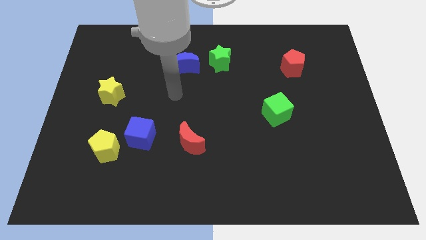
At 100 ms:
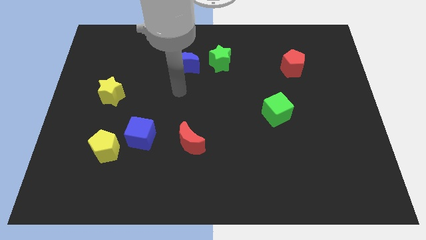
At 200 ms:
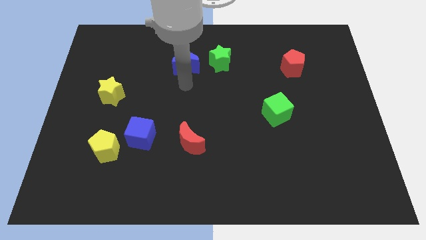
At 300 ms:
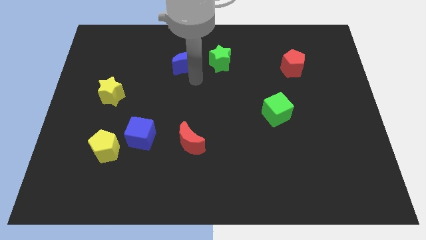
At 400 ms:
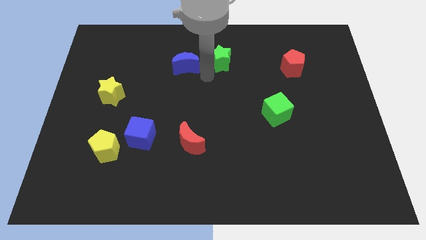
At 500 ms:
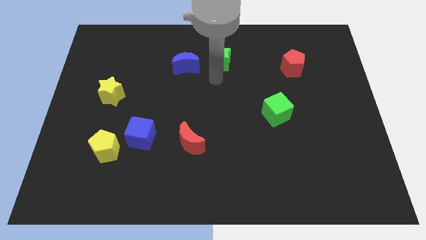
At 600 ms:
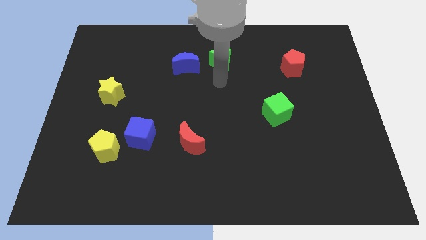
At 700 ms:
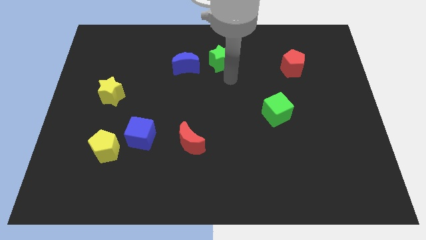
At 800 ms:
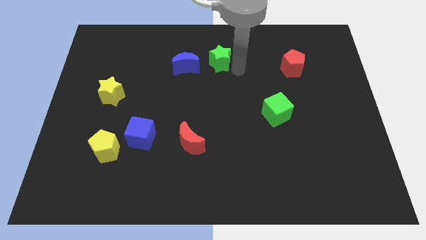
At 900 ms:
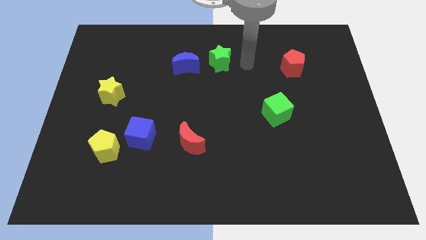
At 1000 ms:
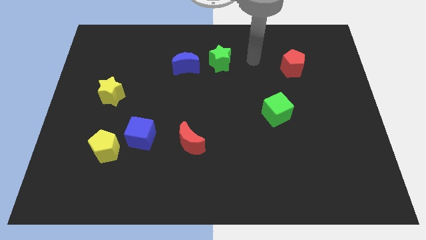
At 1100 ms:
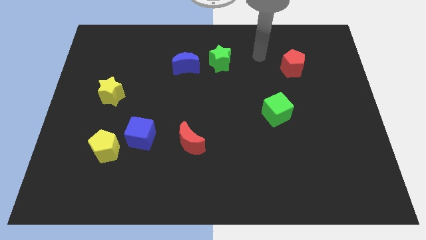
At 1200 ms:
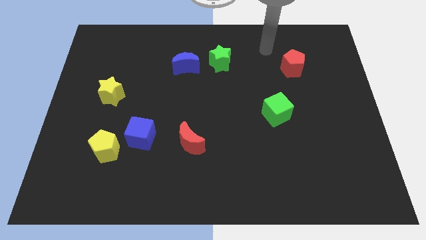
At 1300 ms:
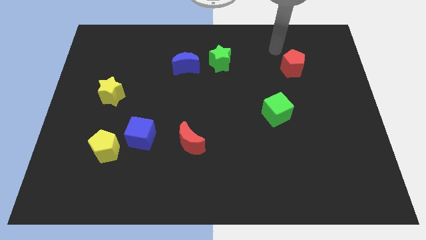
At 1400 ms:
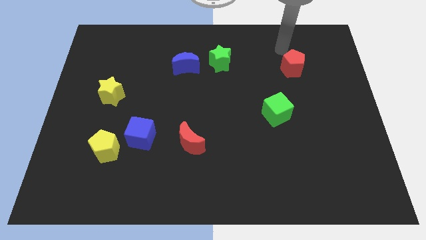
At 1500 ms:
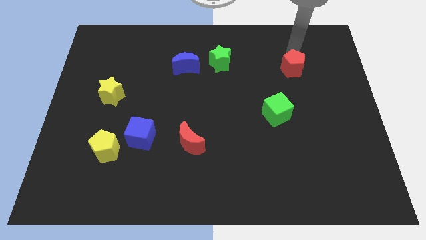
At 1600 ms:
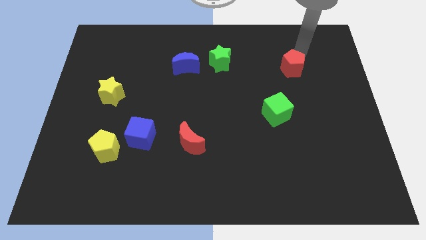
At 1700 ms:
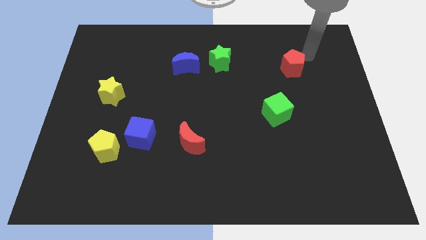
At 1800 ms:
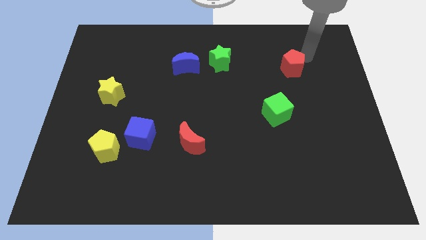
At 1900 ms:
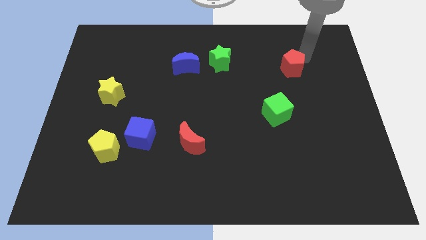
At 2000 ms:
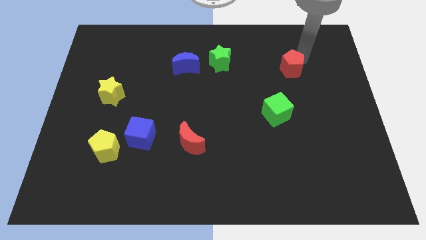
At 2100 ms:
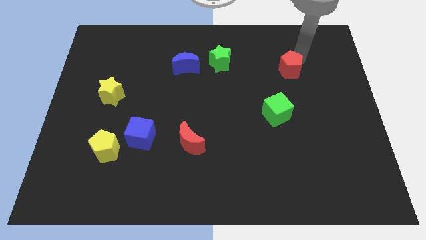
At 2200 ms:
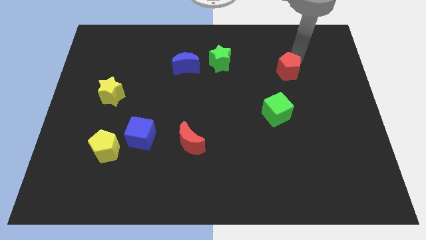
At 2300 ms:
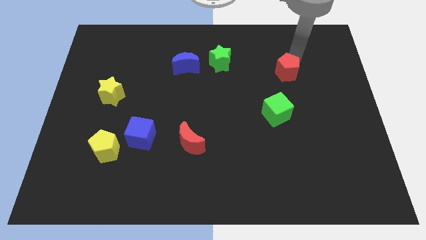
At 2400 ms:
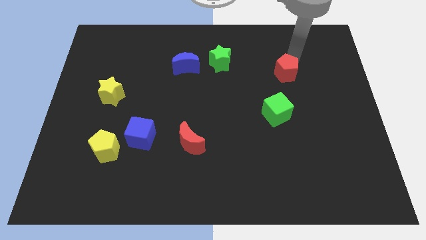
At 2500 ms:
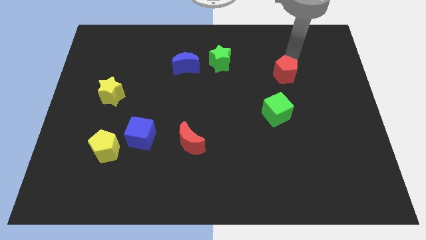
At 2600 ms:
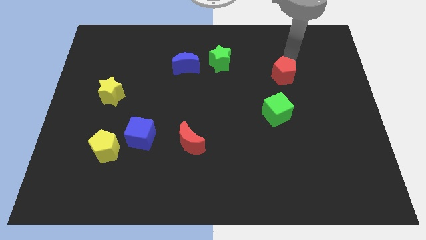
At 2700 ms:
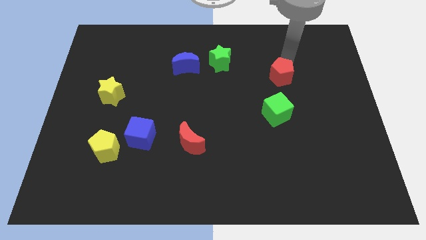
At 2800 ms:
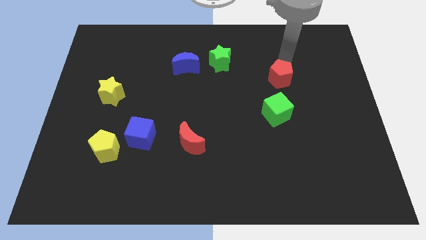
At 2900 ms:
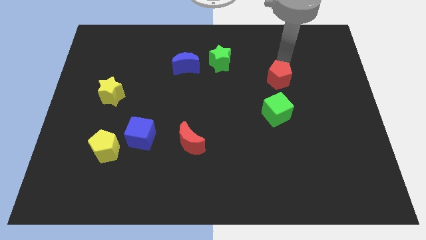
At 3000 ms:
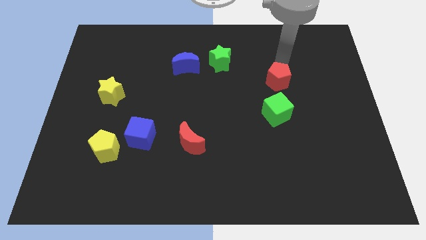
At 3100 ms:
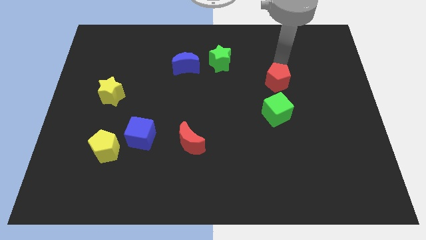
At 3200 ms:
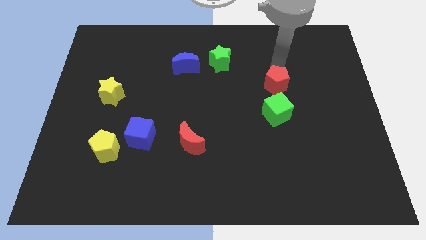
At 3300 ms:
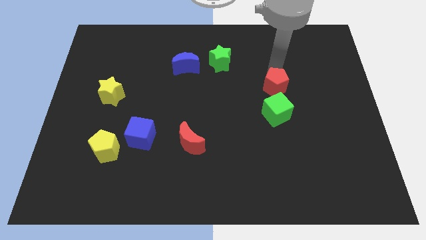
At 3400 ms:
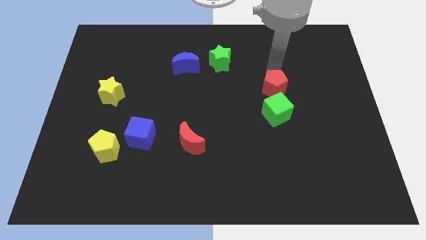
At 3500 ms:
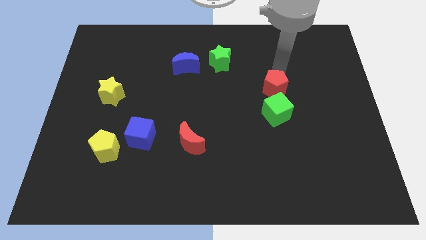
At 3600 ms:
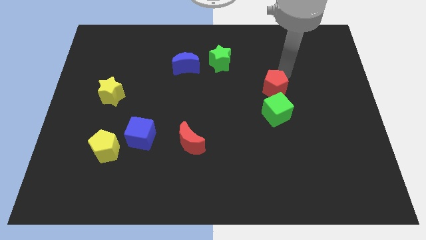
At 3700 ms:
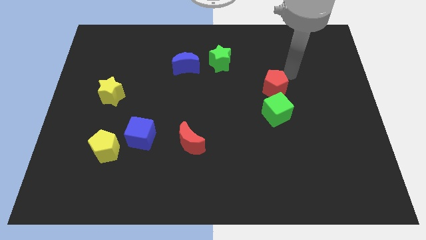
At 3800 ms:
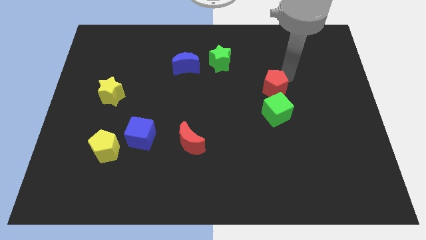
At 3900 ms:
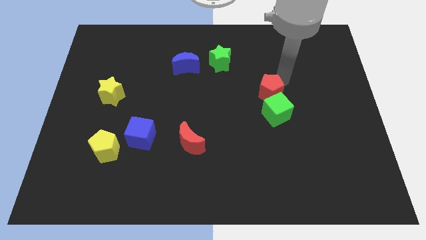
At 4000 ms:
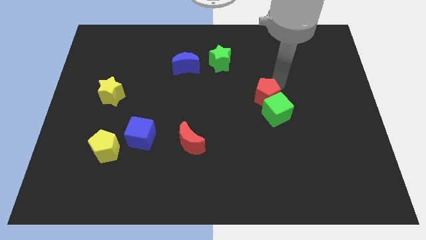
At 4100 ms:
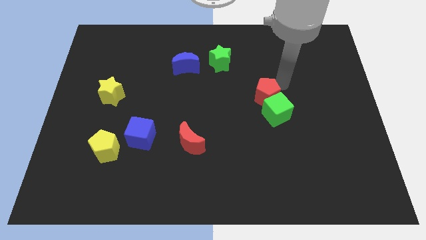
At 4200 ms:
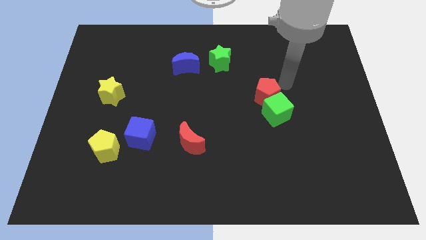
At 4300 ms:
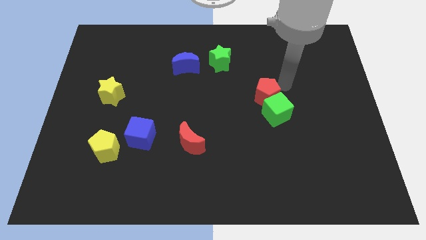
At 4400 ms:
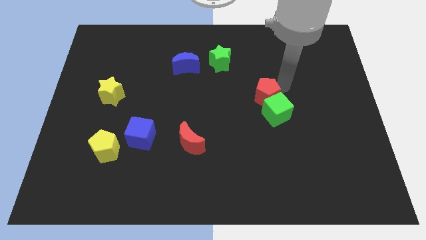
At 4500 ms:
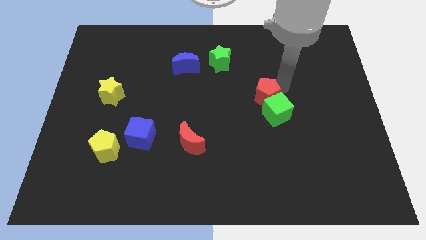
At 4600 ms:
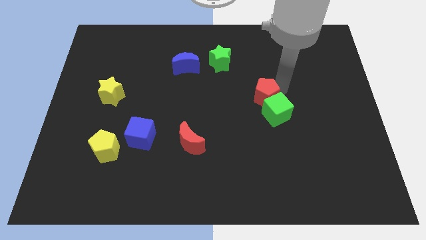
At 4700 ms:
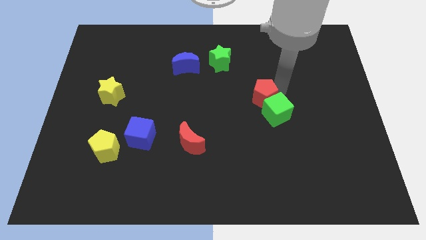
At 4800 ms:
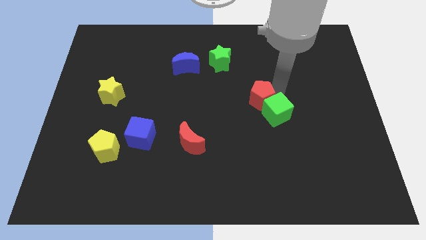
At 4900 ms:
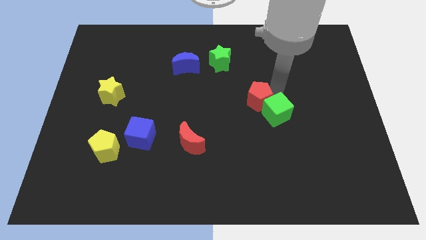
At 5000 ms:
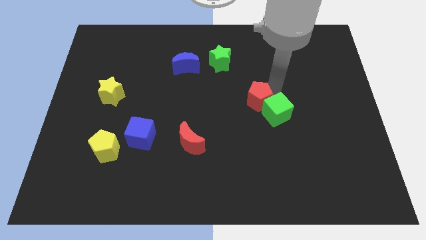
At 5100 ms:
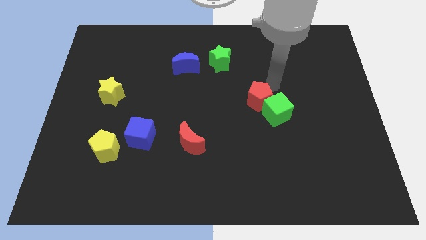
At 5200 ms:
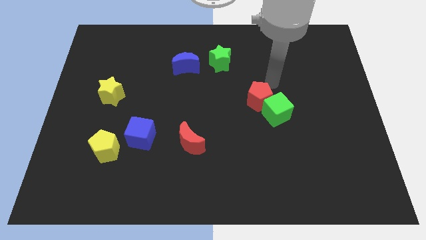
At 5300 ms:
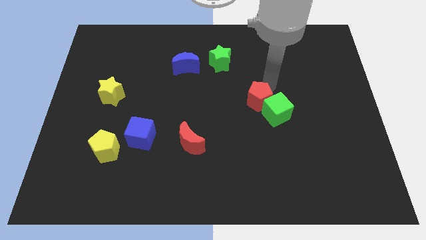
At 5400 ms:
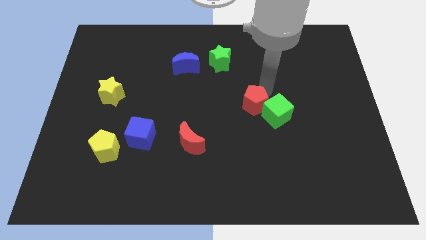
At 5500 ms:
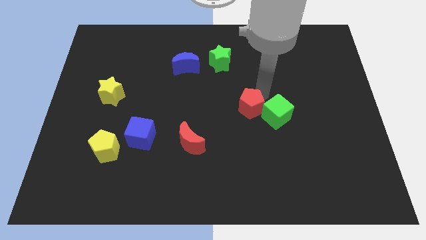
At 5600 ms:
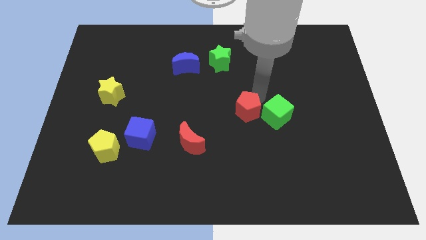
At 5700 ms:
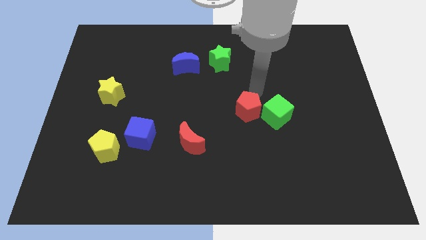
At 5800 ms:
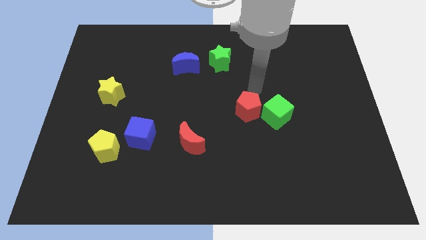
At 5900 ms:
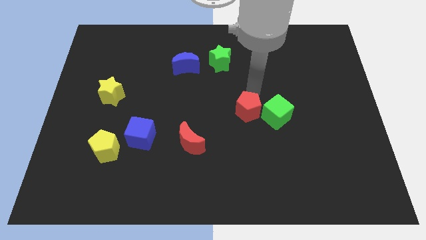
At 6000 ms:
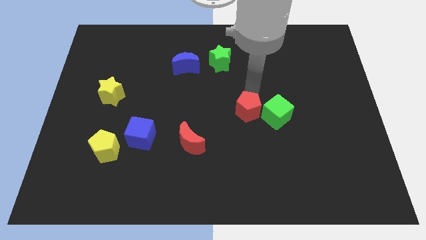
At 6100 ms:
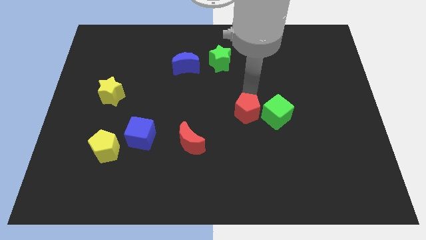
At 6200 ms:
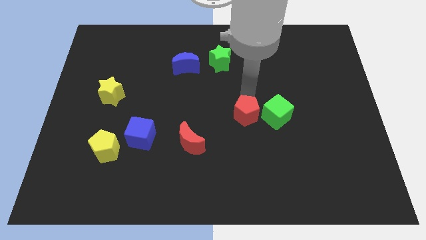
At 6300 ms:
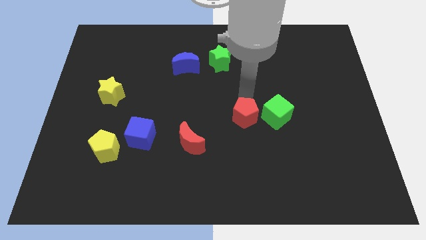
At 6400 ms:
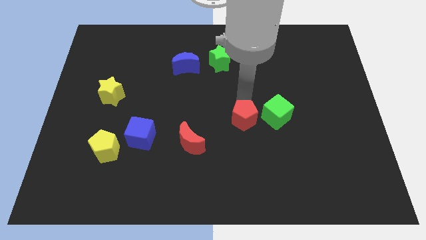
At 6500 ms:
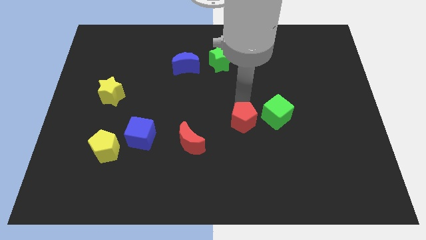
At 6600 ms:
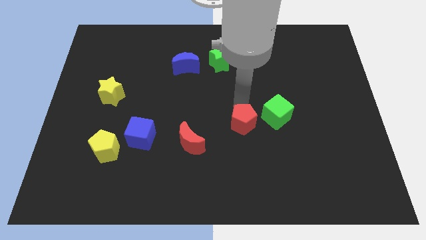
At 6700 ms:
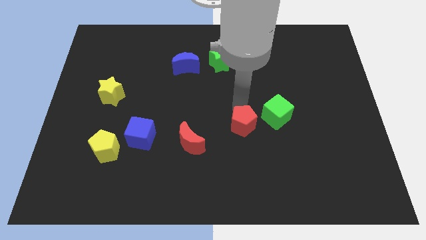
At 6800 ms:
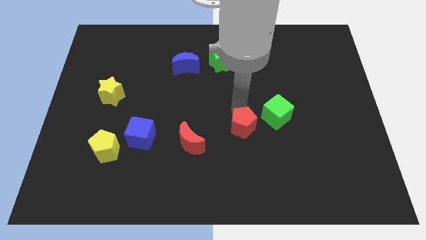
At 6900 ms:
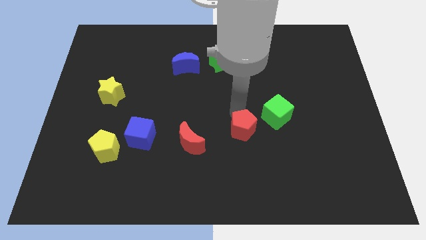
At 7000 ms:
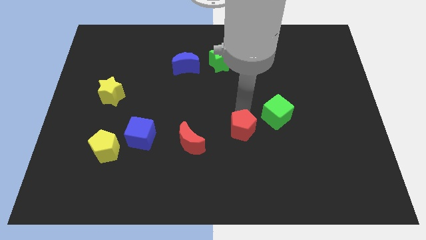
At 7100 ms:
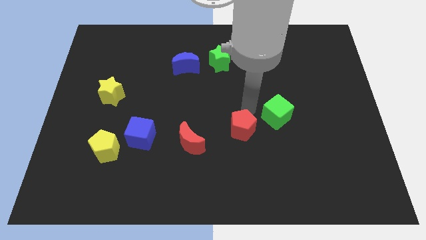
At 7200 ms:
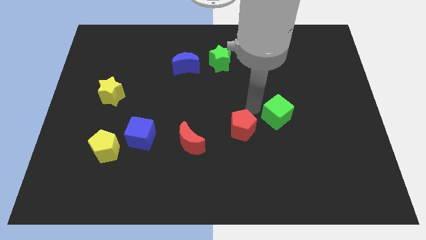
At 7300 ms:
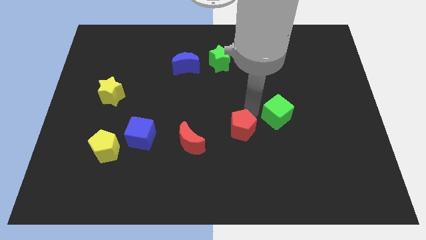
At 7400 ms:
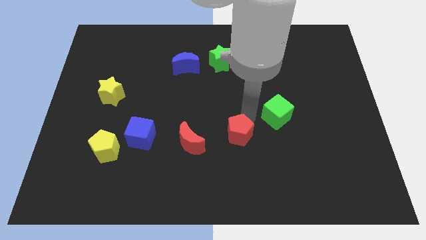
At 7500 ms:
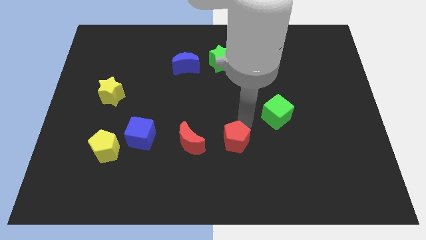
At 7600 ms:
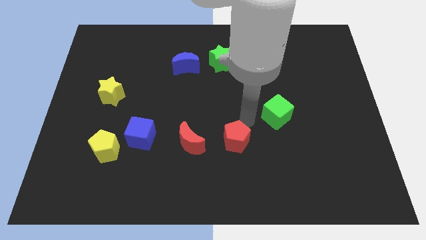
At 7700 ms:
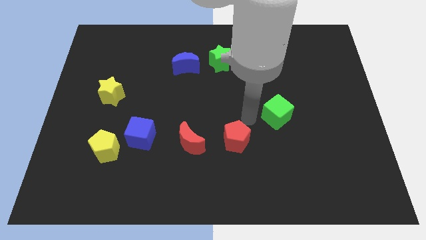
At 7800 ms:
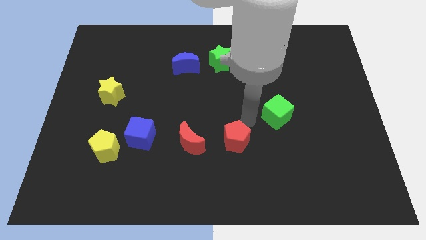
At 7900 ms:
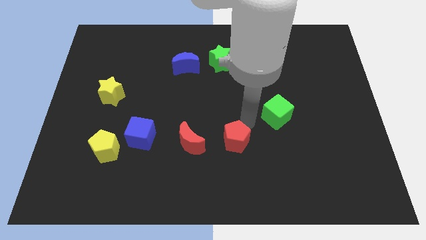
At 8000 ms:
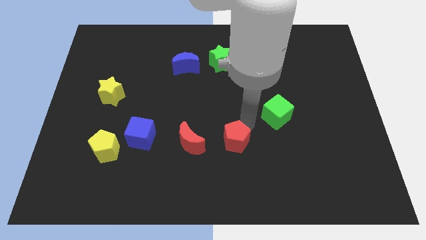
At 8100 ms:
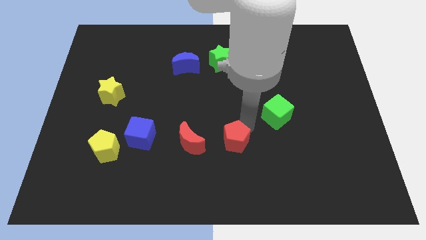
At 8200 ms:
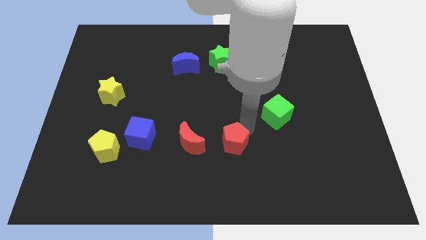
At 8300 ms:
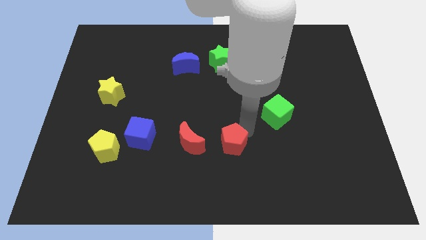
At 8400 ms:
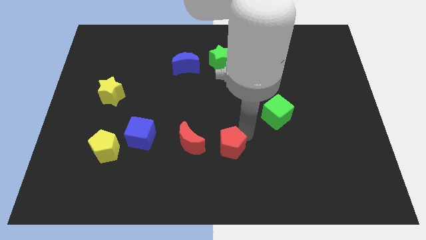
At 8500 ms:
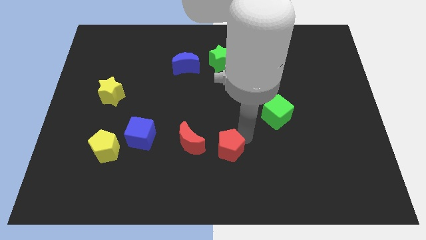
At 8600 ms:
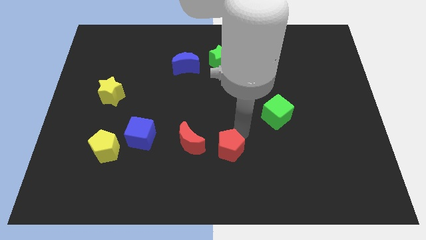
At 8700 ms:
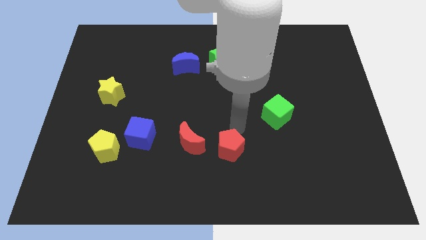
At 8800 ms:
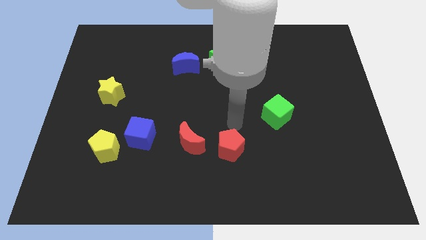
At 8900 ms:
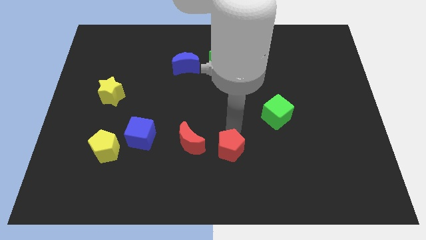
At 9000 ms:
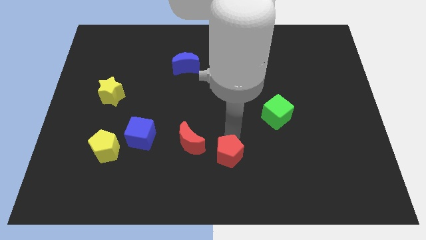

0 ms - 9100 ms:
put the red pentagon to the bottom side
